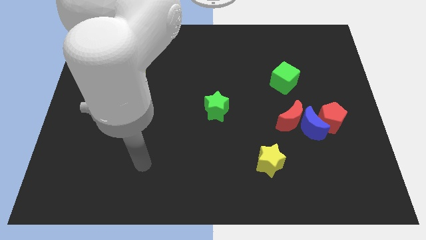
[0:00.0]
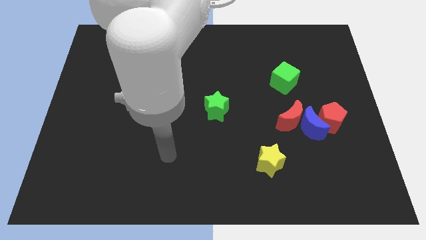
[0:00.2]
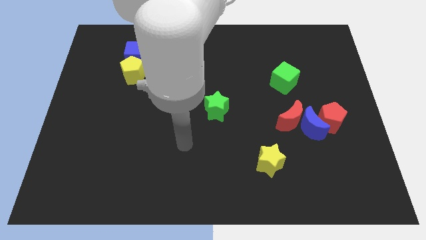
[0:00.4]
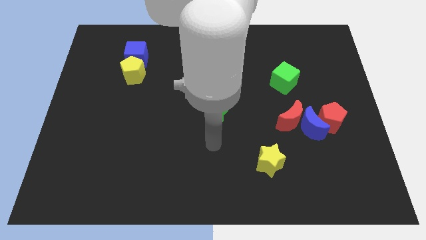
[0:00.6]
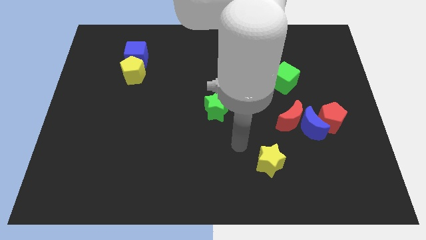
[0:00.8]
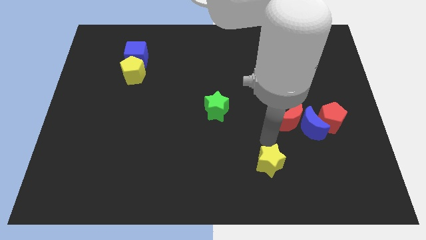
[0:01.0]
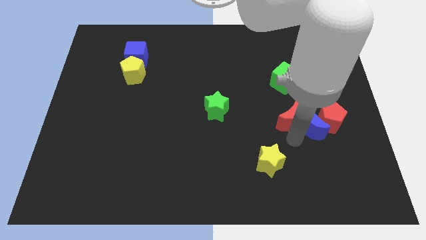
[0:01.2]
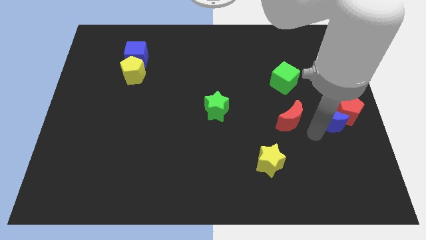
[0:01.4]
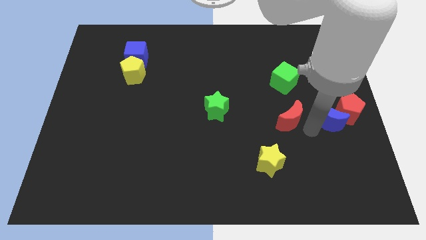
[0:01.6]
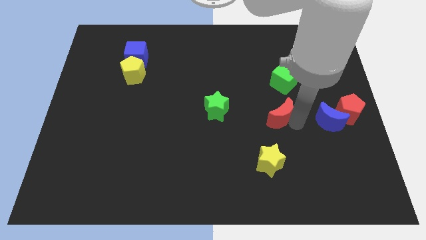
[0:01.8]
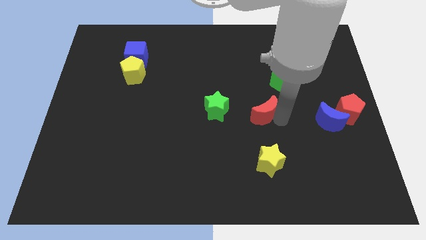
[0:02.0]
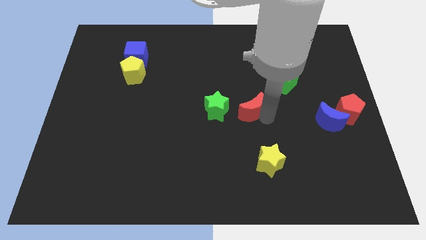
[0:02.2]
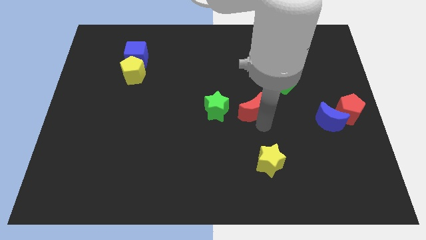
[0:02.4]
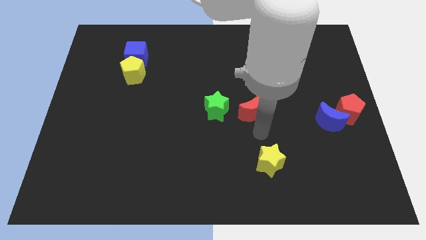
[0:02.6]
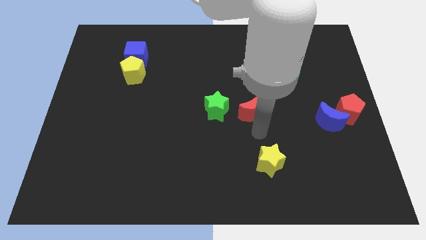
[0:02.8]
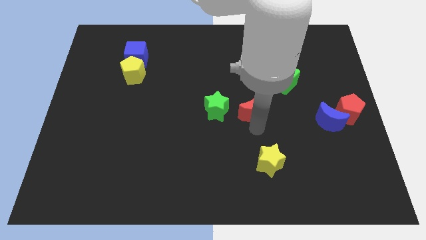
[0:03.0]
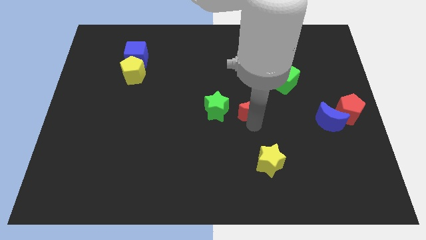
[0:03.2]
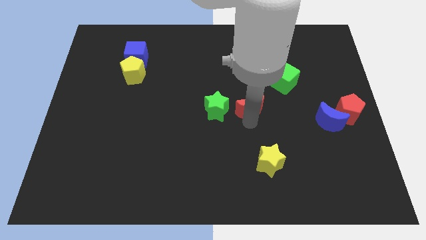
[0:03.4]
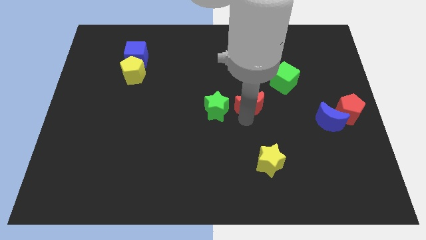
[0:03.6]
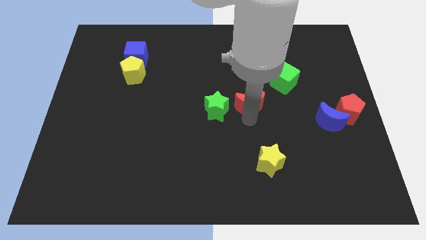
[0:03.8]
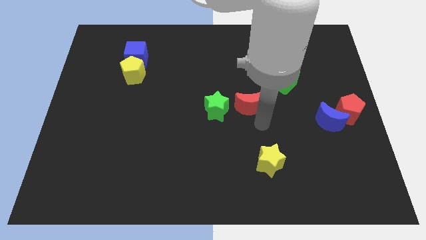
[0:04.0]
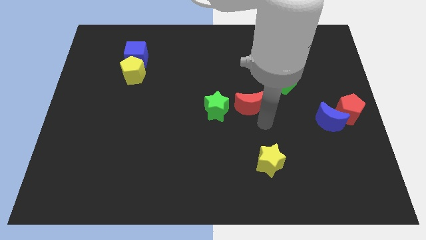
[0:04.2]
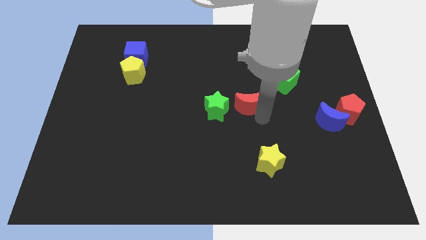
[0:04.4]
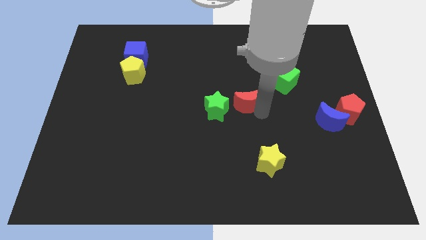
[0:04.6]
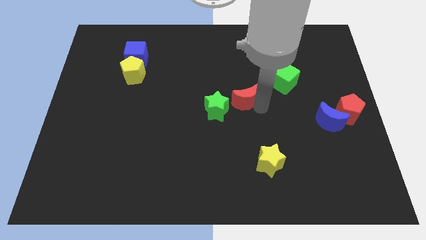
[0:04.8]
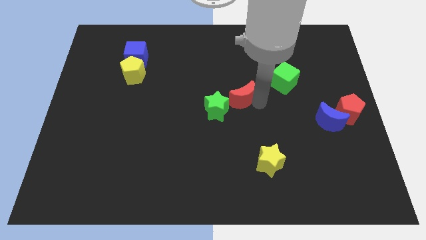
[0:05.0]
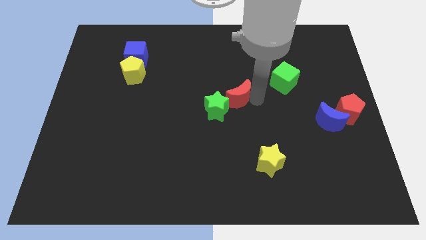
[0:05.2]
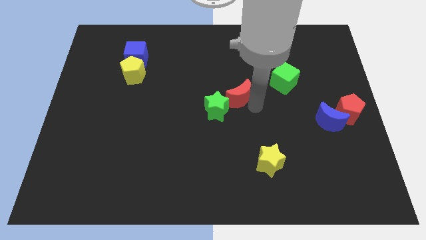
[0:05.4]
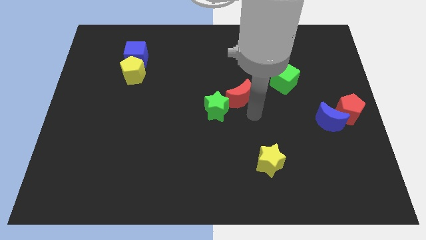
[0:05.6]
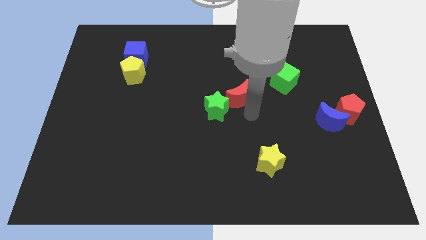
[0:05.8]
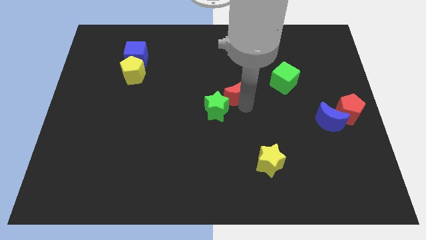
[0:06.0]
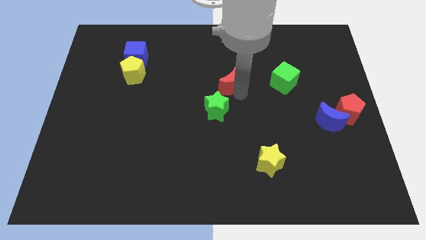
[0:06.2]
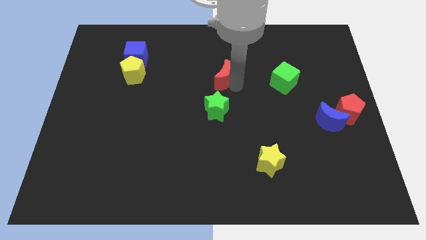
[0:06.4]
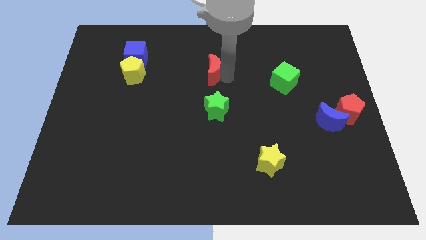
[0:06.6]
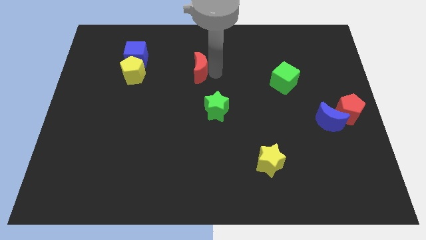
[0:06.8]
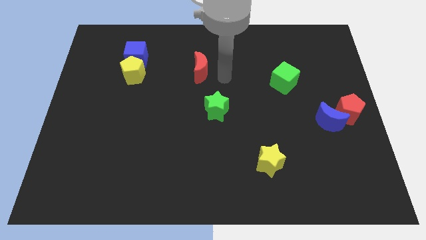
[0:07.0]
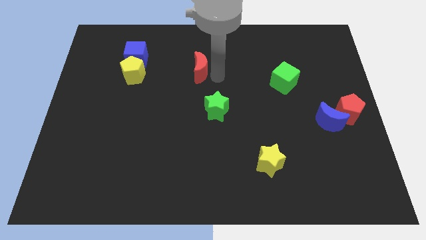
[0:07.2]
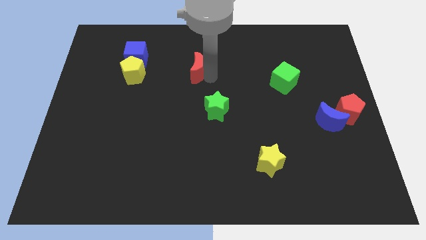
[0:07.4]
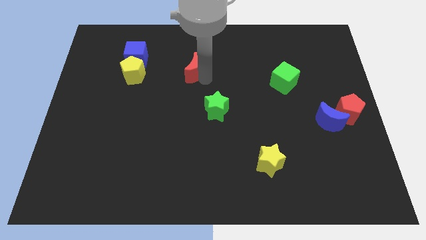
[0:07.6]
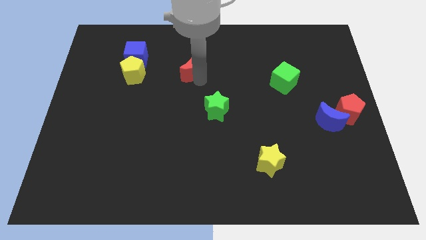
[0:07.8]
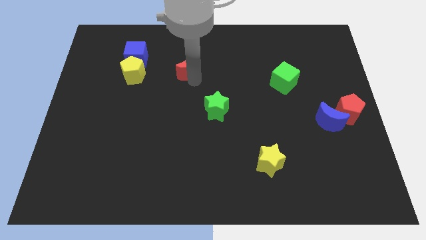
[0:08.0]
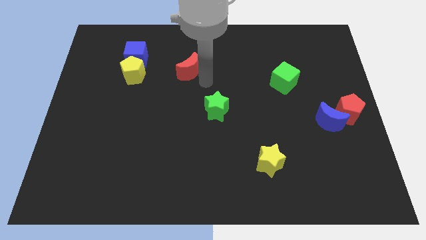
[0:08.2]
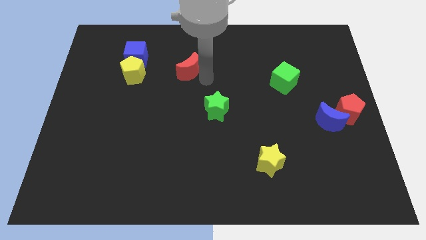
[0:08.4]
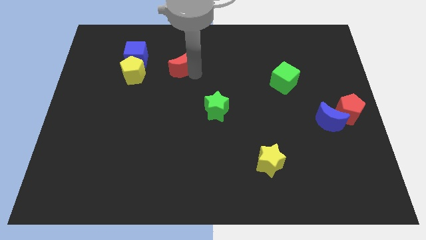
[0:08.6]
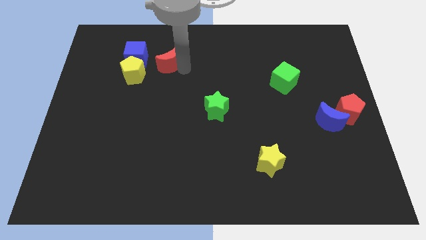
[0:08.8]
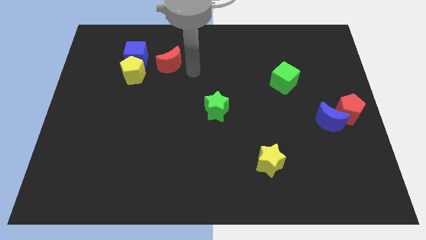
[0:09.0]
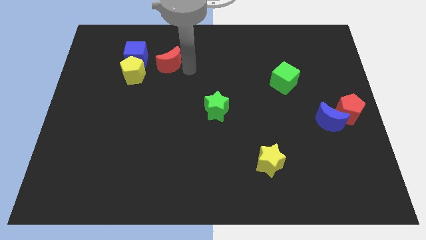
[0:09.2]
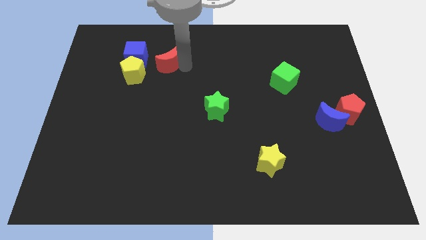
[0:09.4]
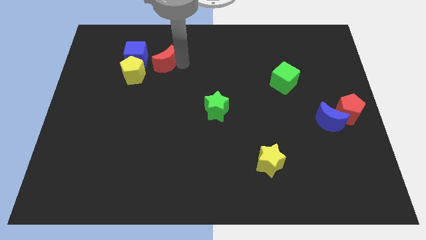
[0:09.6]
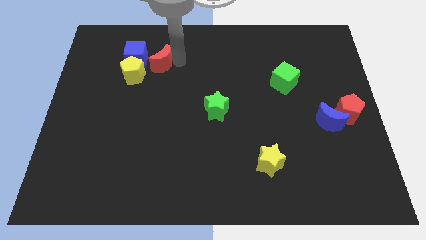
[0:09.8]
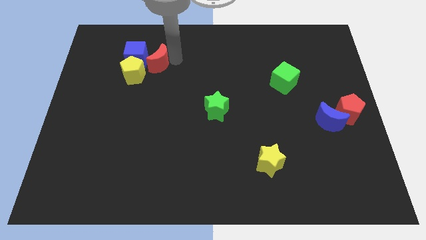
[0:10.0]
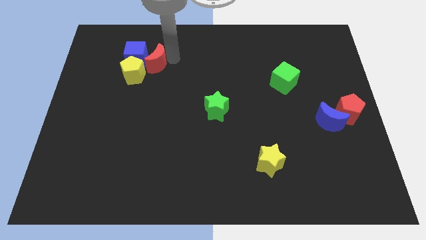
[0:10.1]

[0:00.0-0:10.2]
put the red moon towards the blue cube

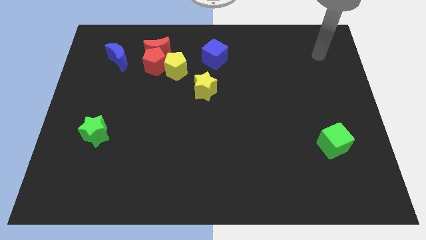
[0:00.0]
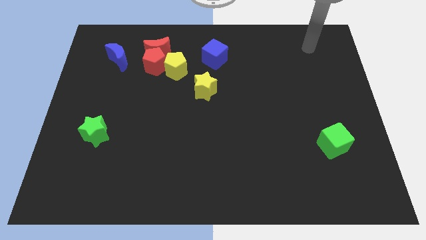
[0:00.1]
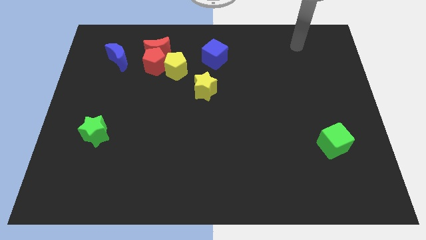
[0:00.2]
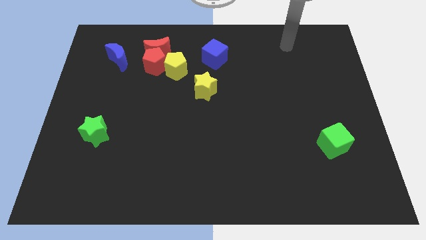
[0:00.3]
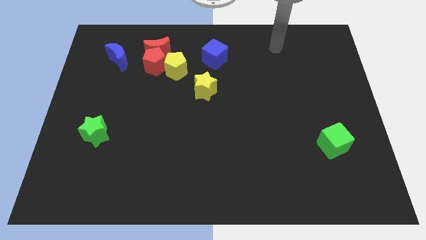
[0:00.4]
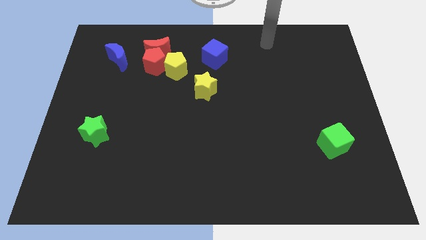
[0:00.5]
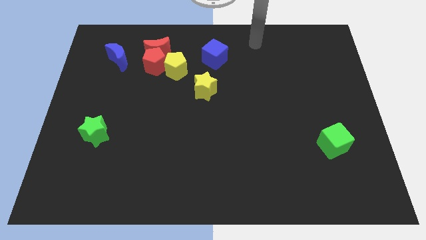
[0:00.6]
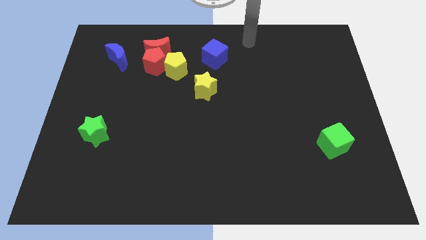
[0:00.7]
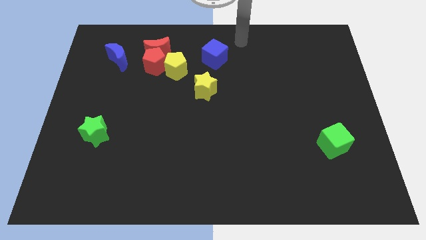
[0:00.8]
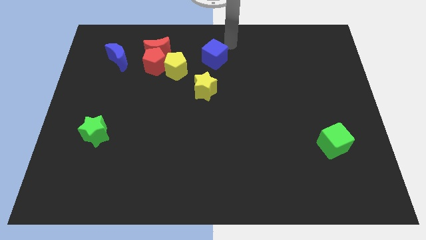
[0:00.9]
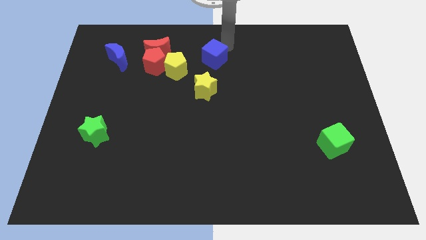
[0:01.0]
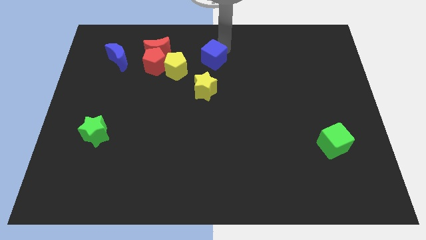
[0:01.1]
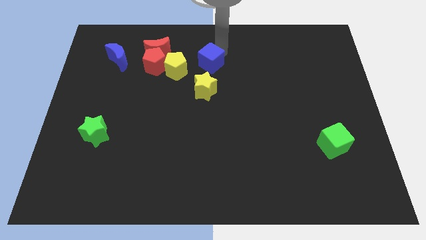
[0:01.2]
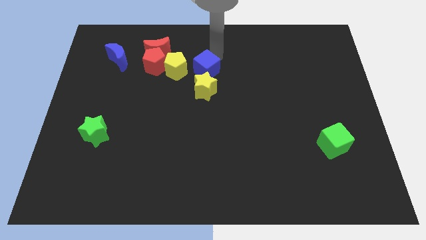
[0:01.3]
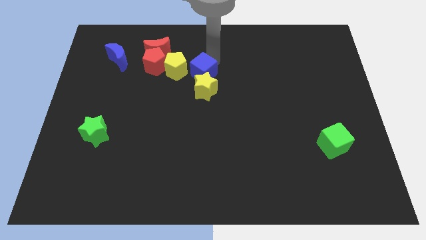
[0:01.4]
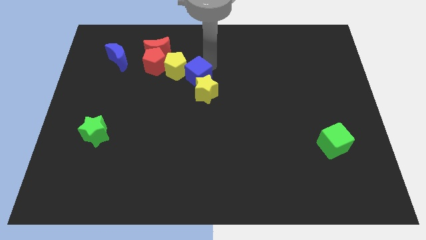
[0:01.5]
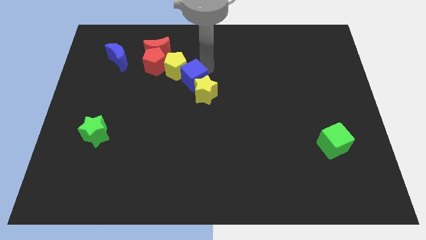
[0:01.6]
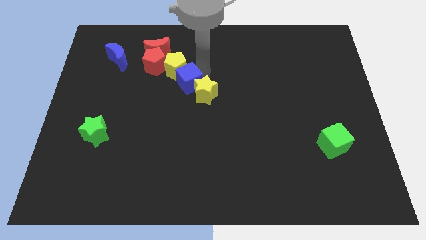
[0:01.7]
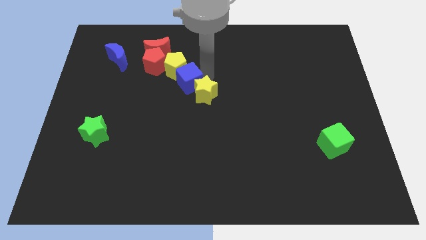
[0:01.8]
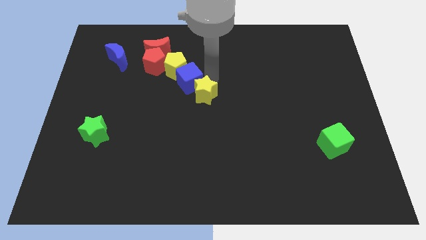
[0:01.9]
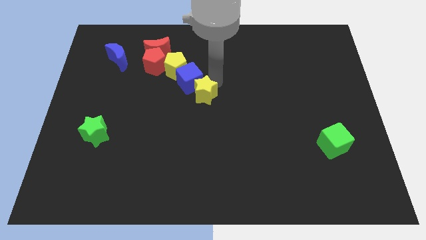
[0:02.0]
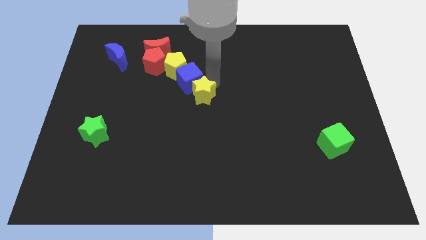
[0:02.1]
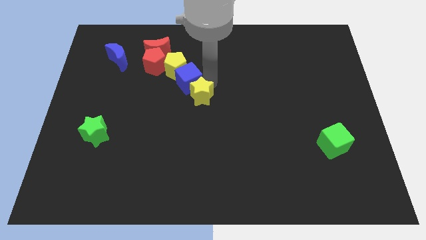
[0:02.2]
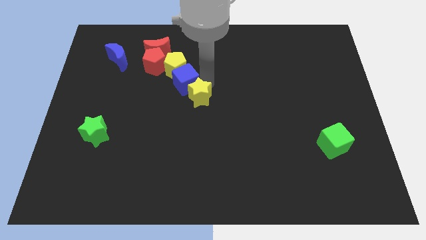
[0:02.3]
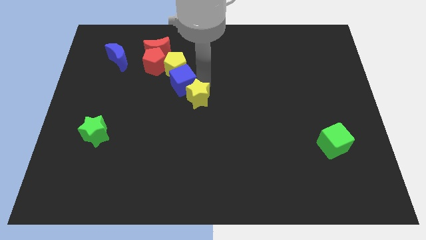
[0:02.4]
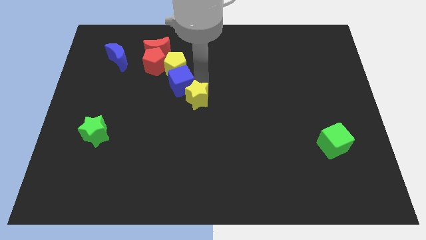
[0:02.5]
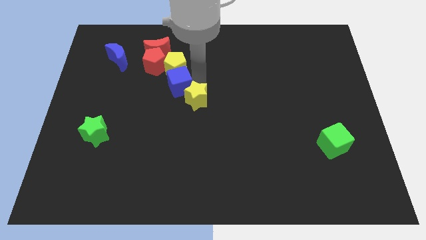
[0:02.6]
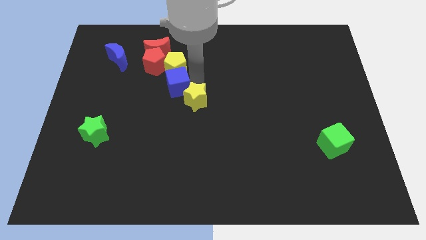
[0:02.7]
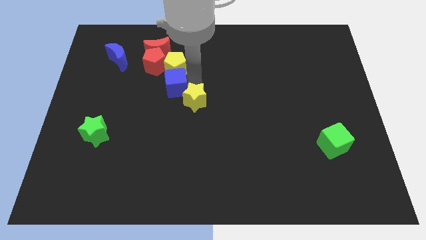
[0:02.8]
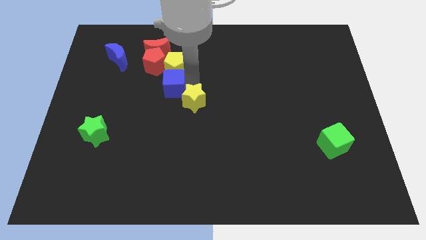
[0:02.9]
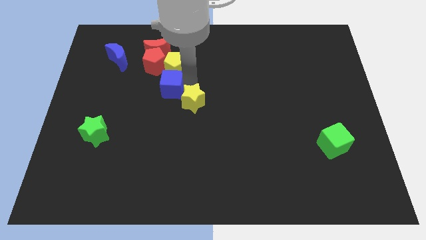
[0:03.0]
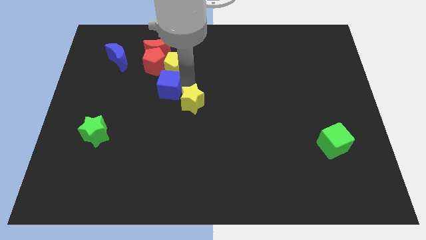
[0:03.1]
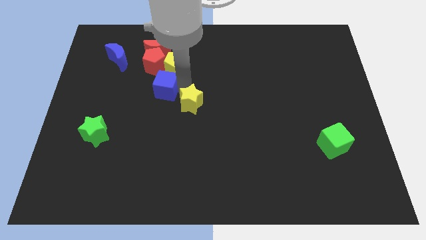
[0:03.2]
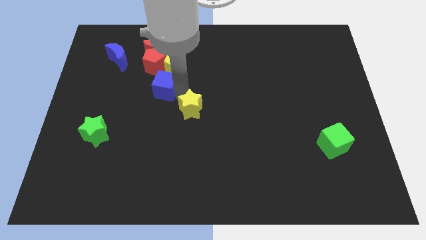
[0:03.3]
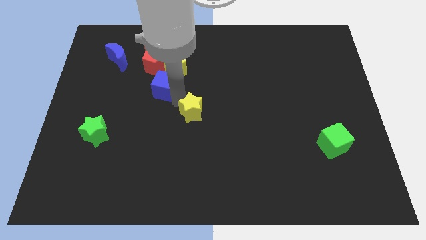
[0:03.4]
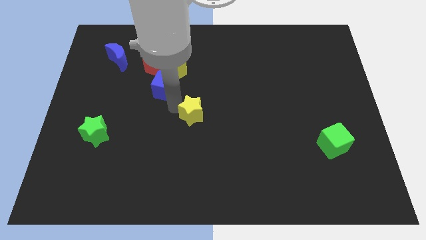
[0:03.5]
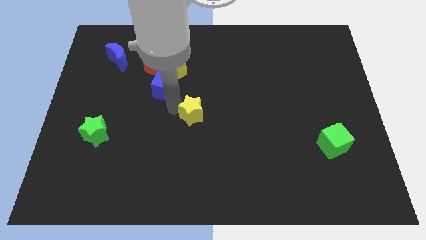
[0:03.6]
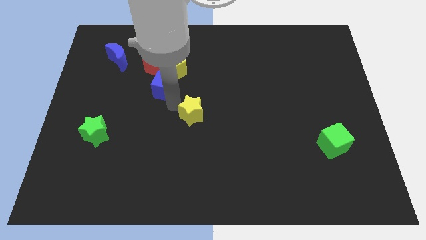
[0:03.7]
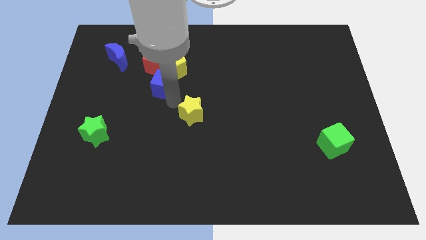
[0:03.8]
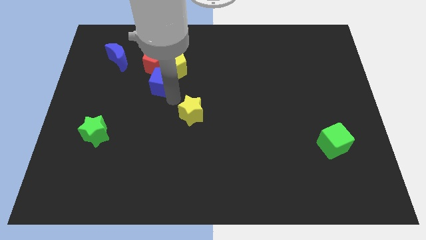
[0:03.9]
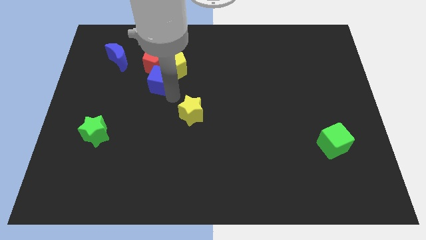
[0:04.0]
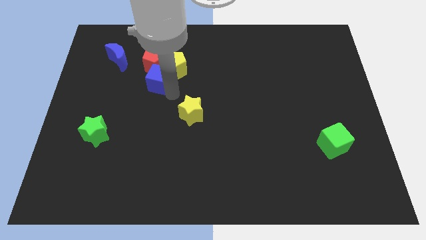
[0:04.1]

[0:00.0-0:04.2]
slide the blue cube next to the red pentagon
